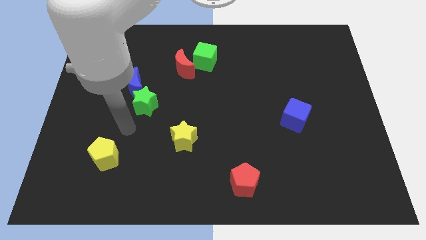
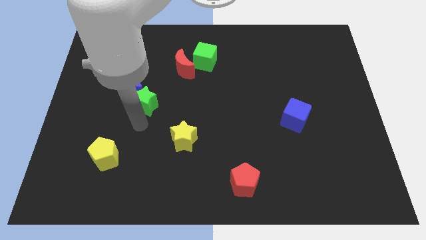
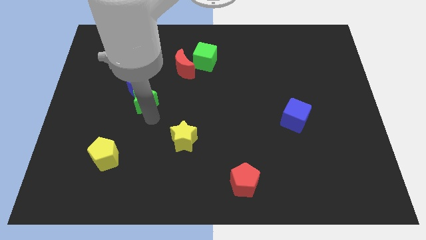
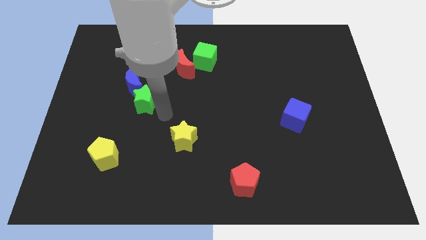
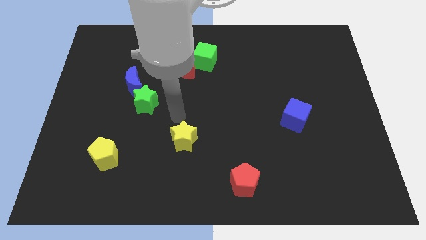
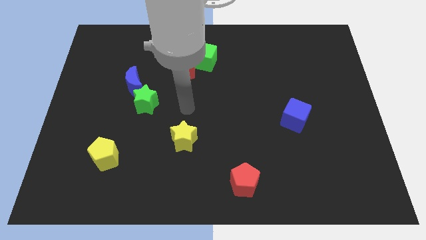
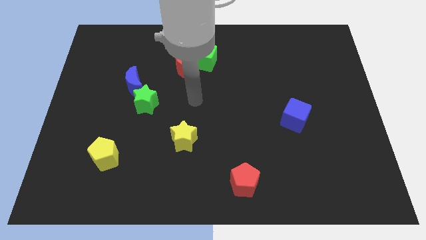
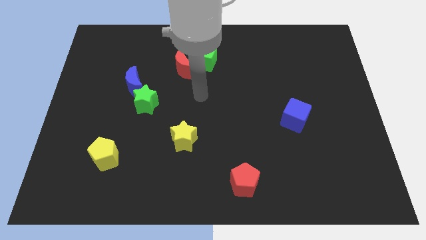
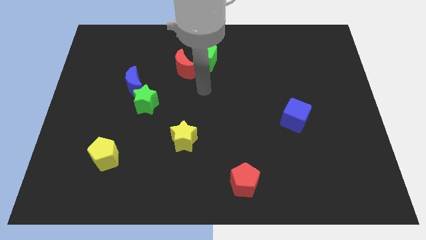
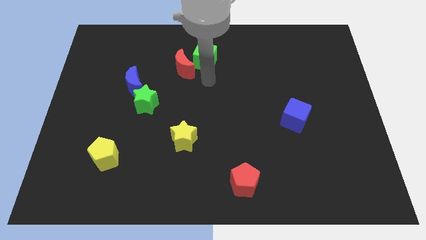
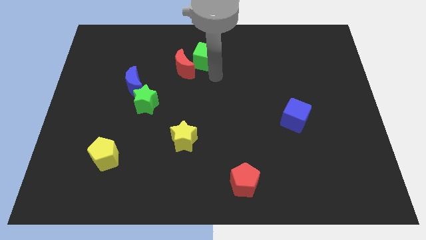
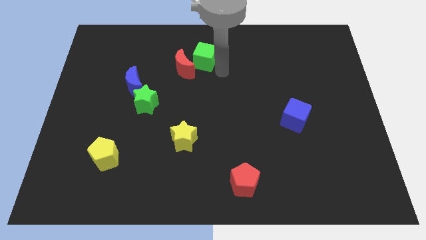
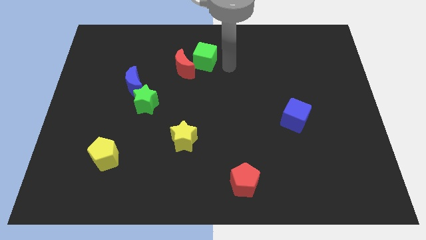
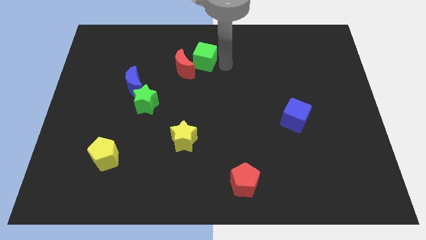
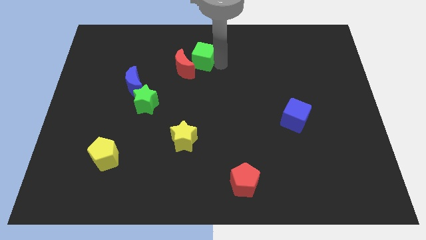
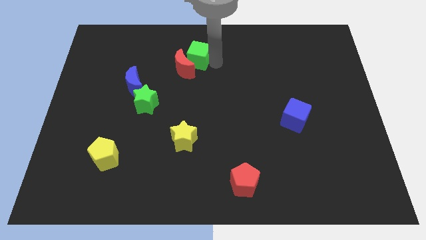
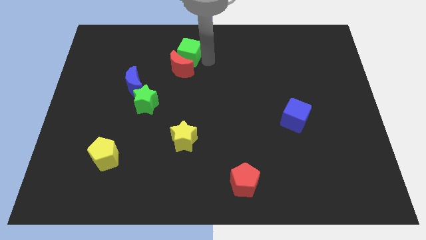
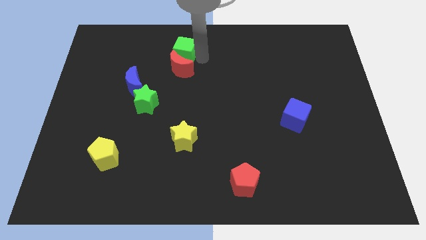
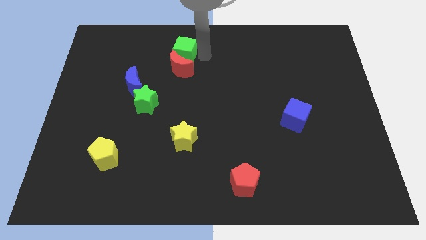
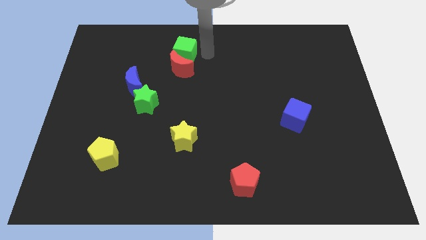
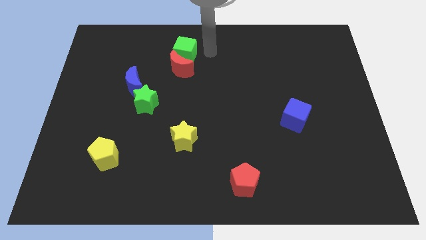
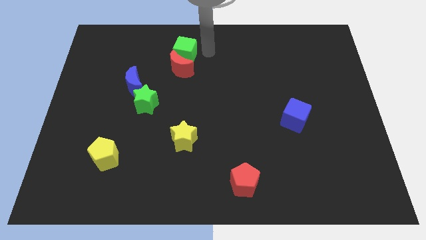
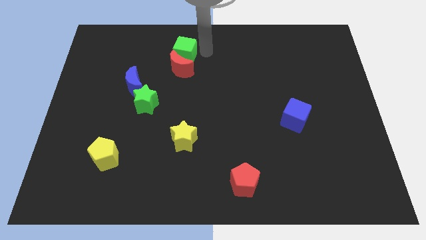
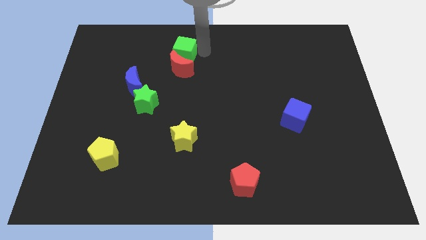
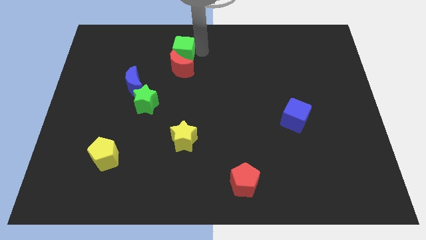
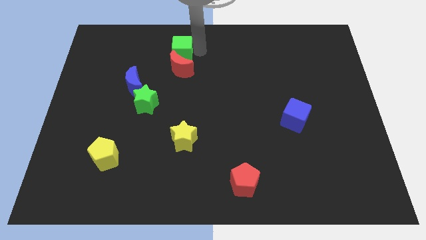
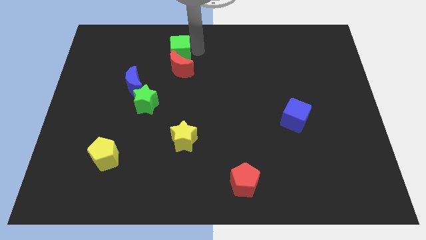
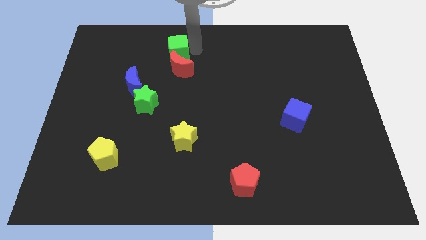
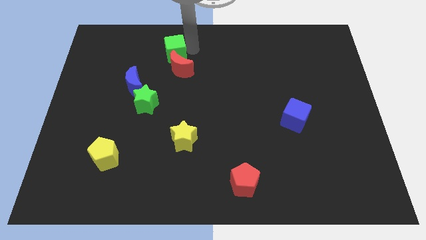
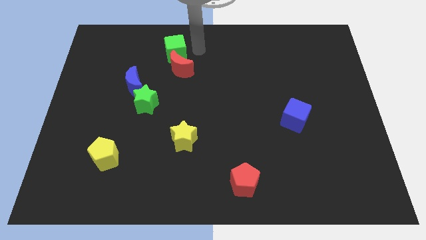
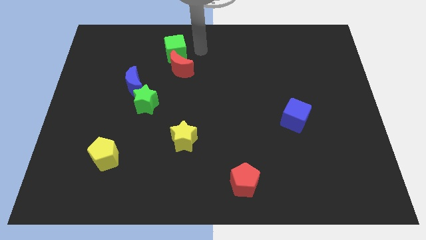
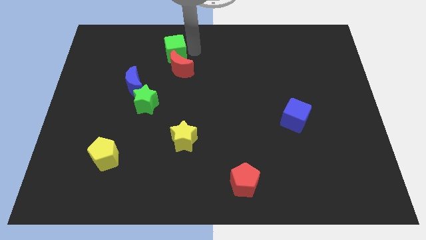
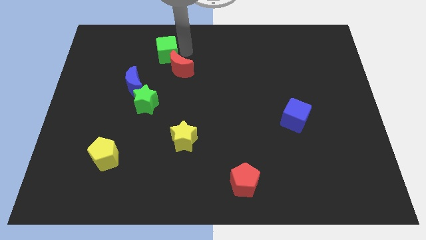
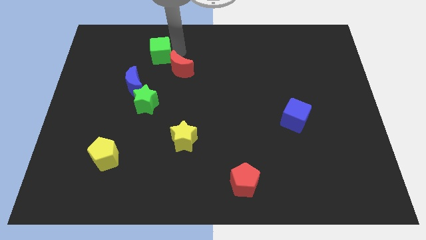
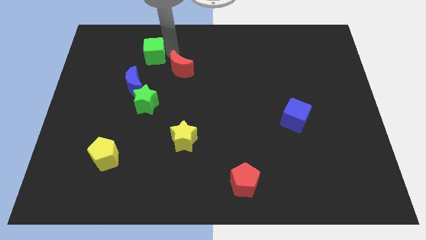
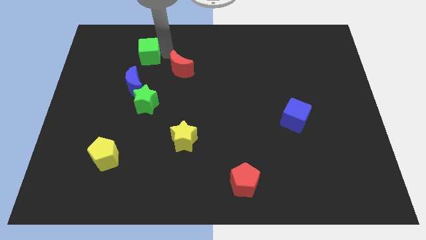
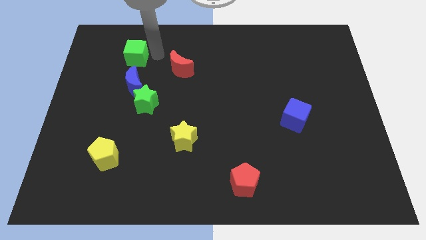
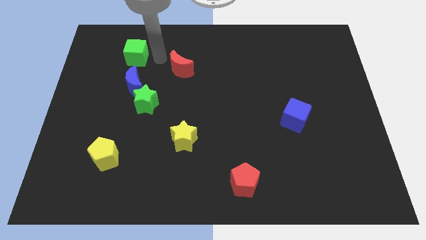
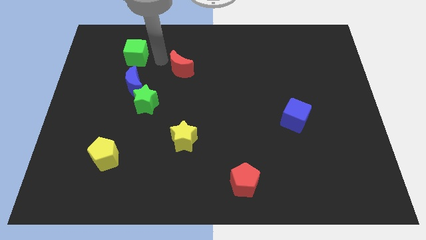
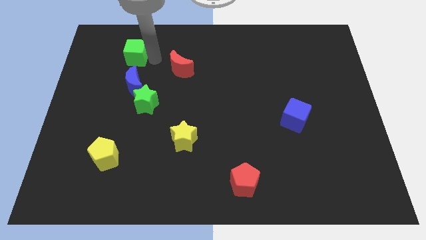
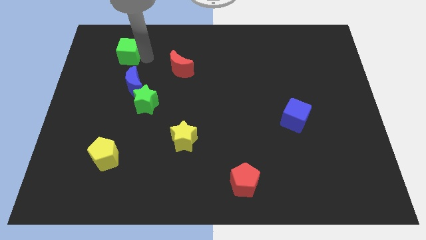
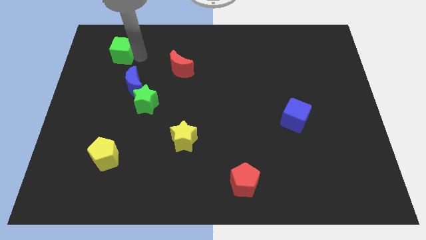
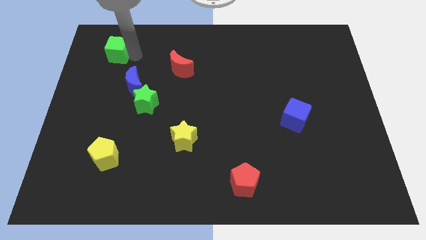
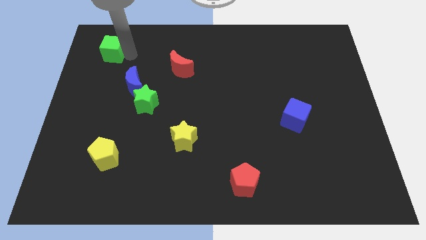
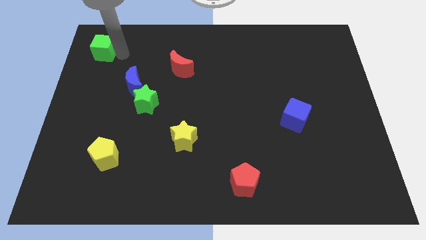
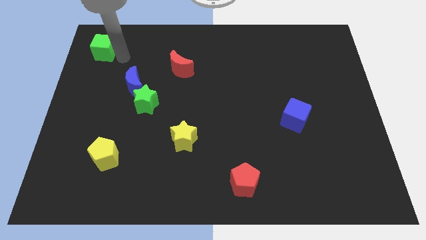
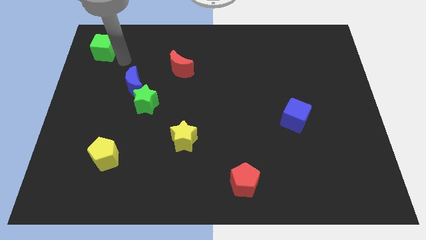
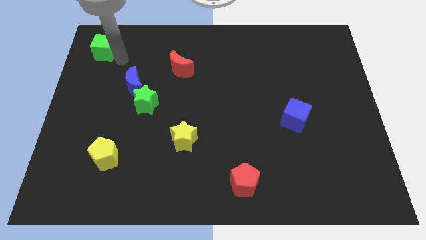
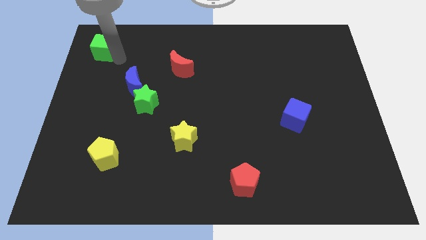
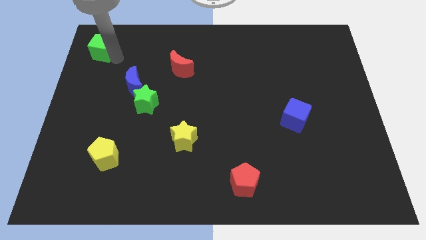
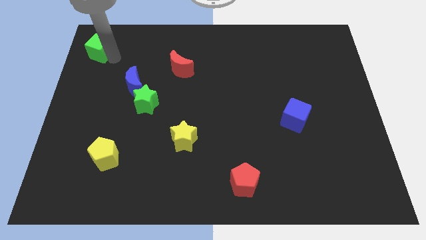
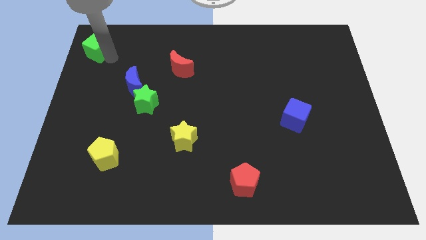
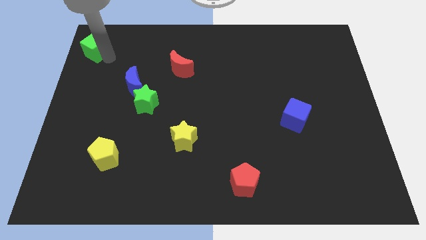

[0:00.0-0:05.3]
move the green cube to the upper left corner

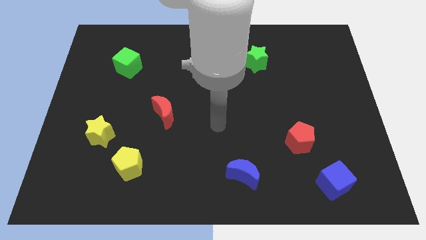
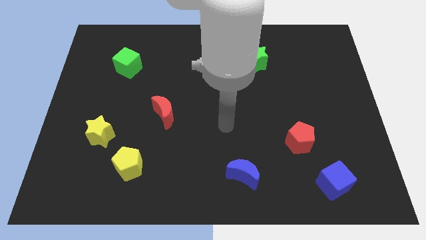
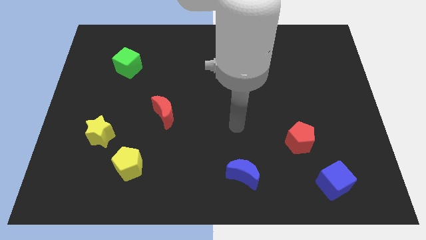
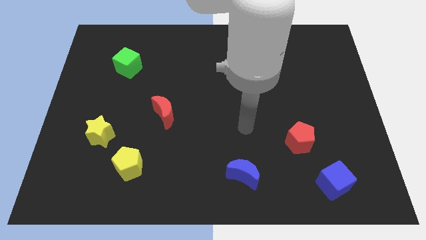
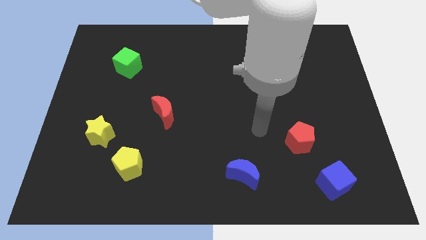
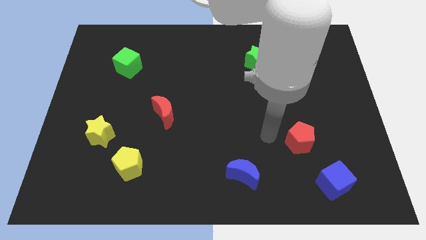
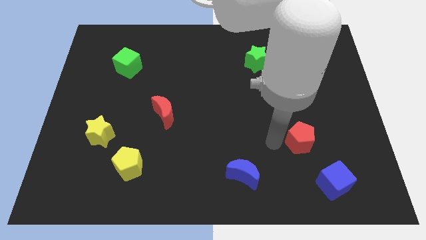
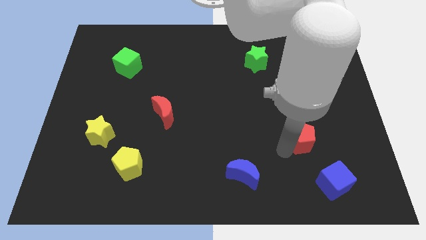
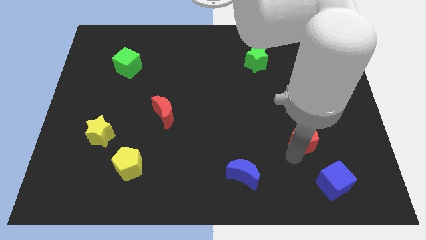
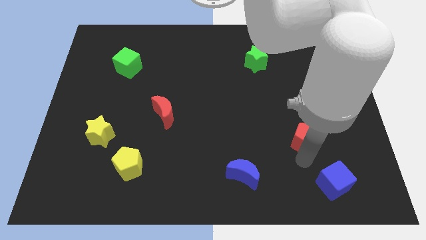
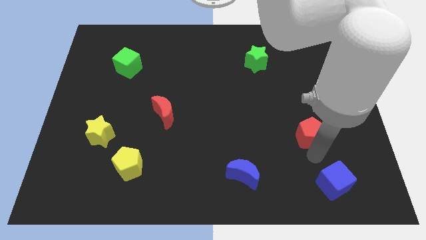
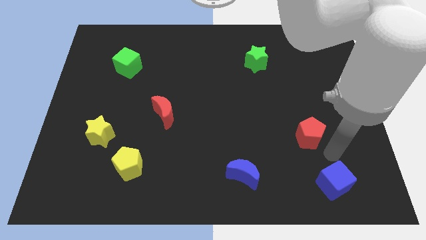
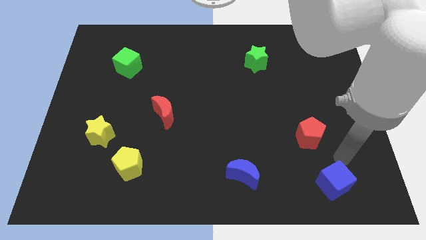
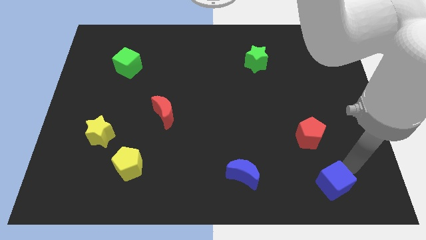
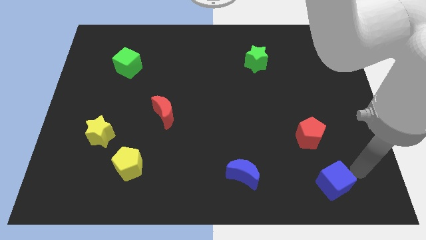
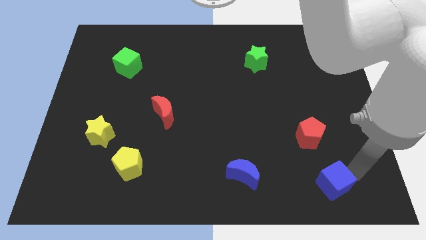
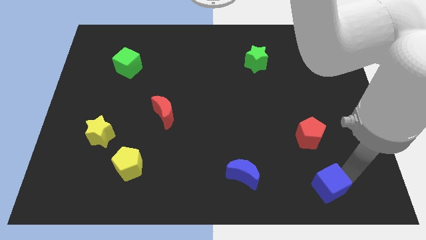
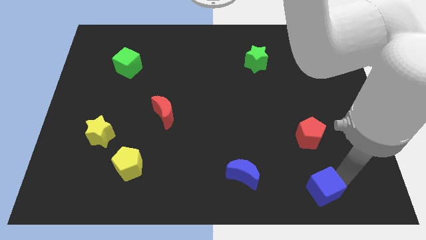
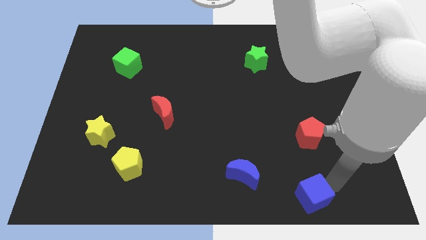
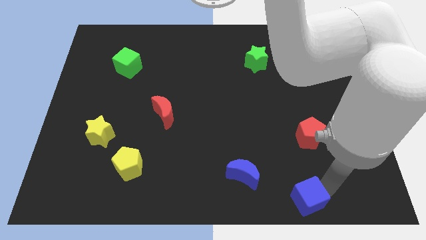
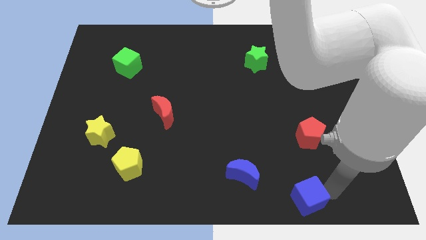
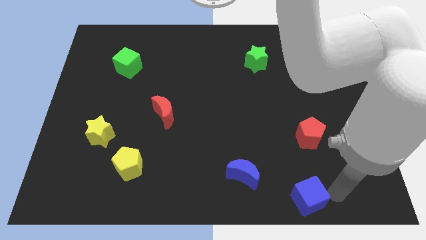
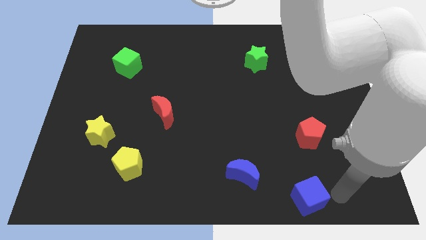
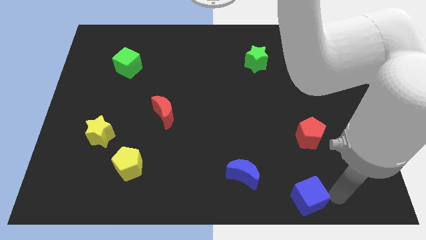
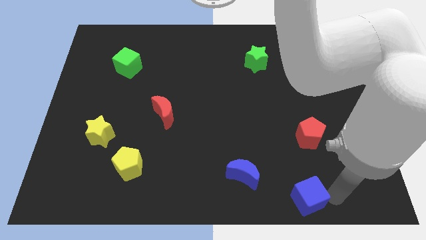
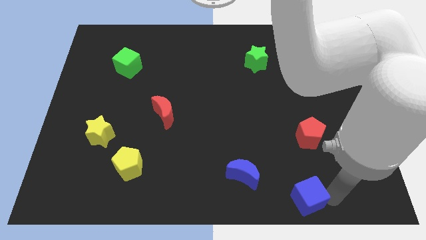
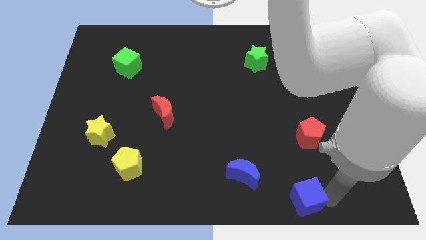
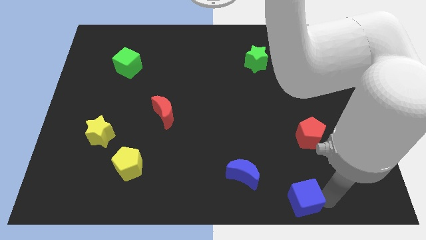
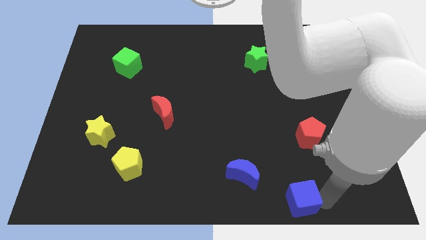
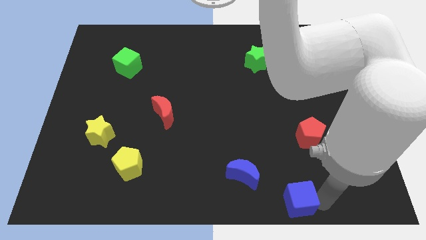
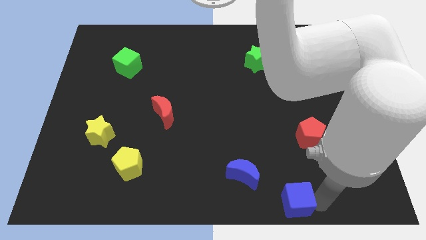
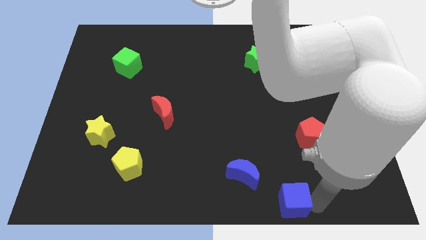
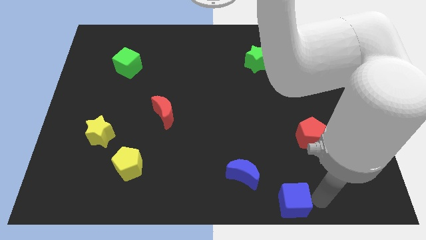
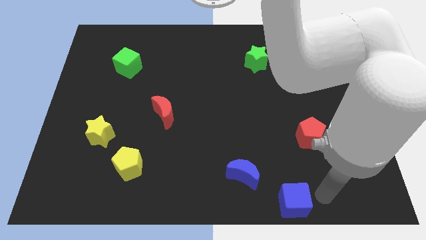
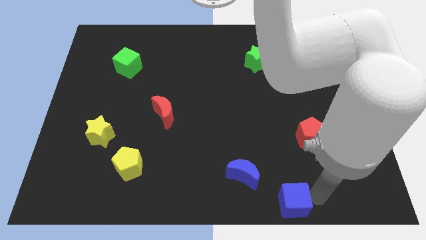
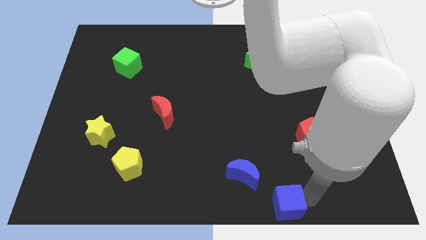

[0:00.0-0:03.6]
move the blue cube to the bottom
